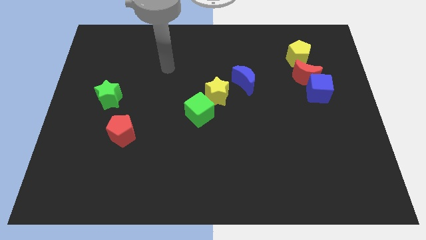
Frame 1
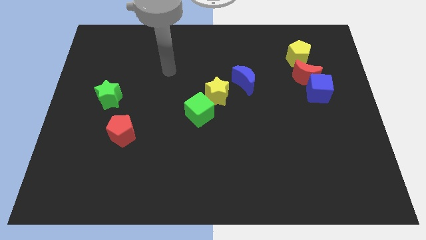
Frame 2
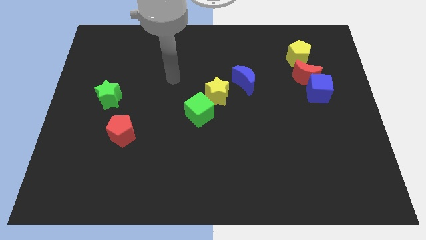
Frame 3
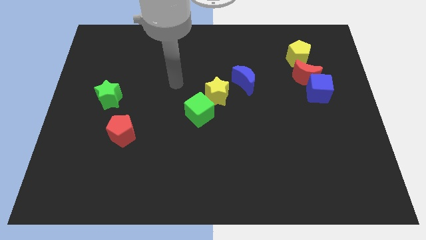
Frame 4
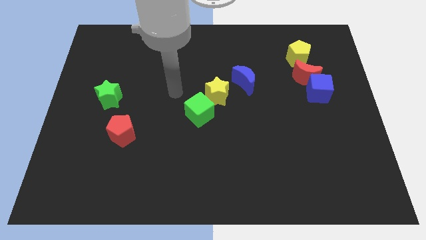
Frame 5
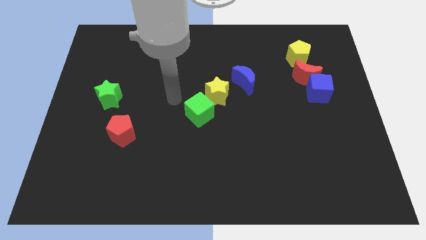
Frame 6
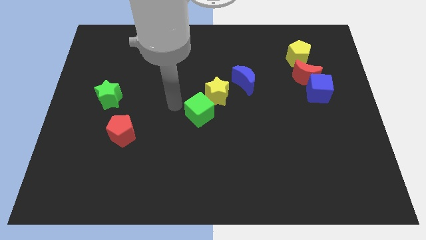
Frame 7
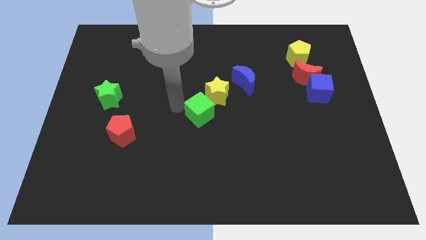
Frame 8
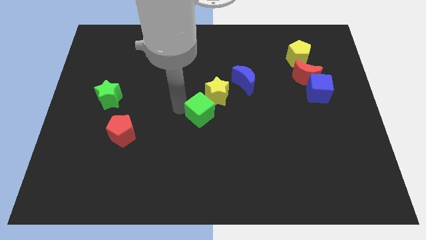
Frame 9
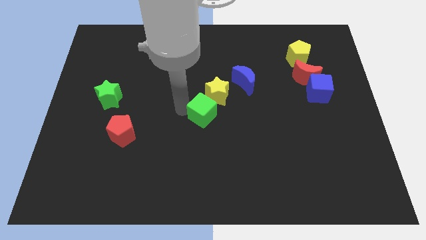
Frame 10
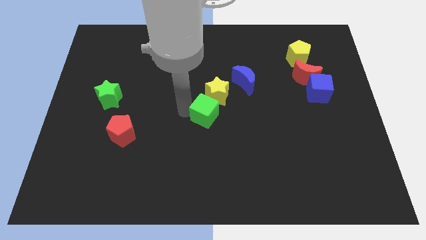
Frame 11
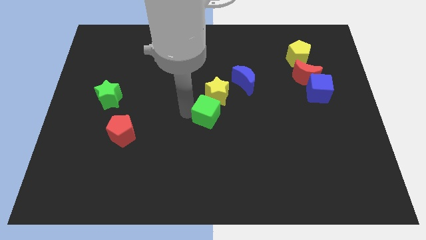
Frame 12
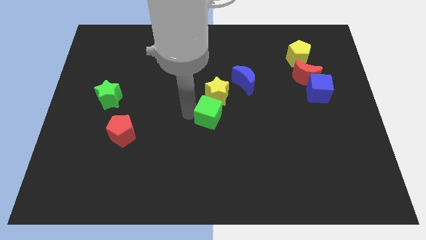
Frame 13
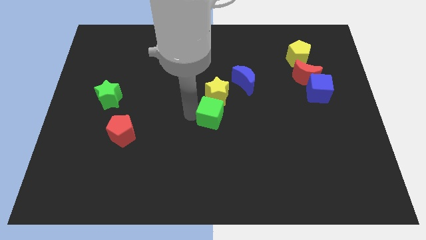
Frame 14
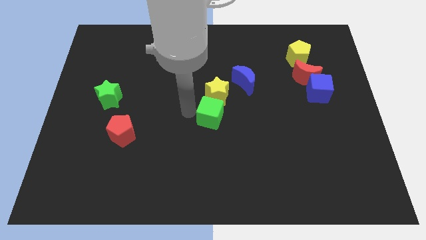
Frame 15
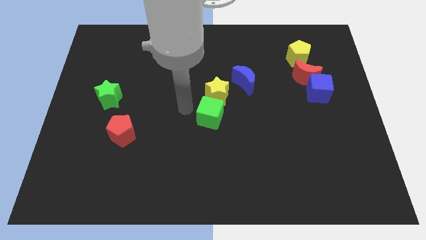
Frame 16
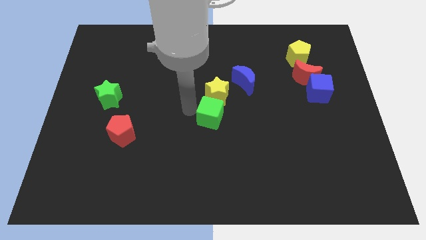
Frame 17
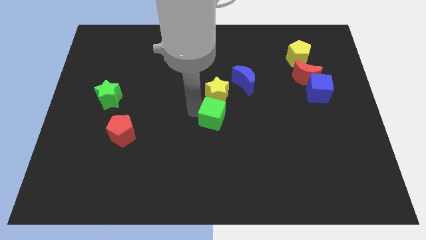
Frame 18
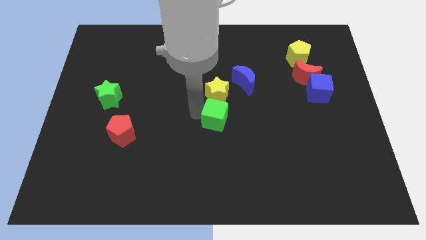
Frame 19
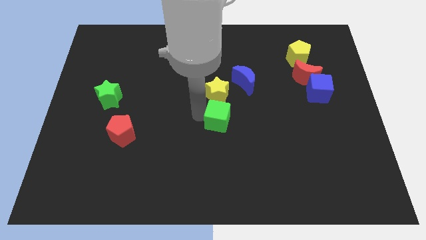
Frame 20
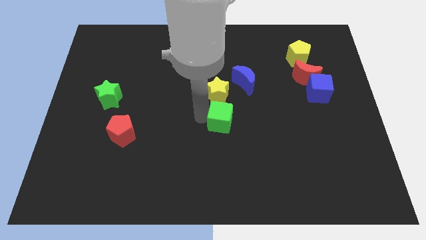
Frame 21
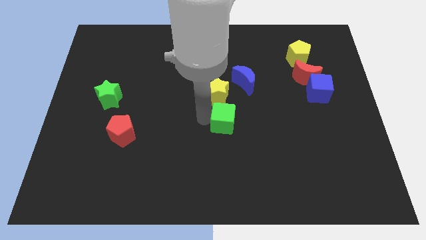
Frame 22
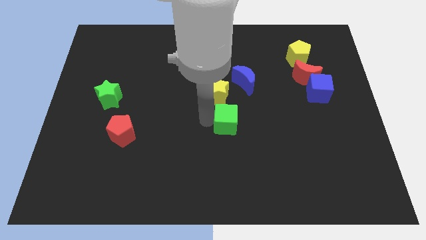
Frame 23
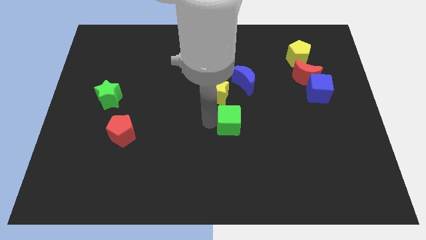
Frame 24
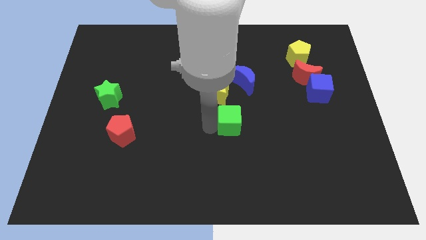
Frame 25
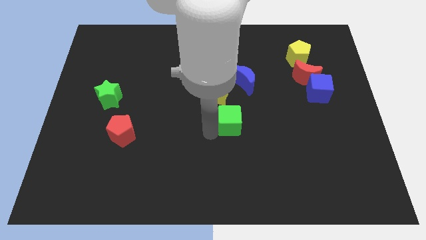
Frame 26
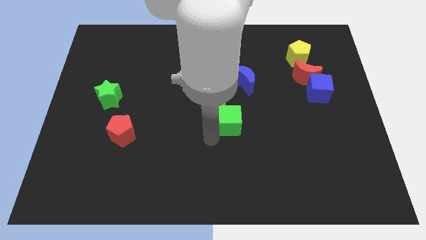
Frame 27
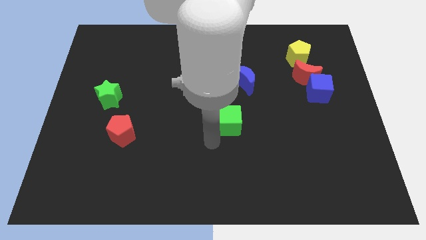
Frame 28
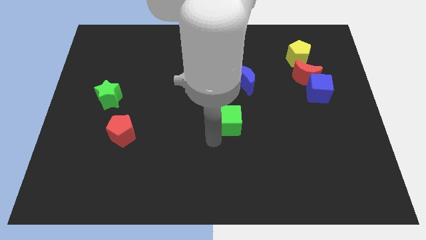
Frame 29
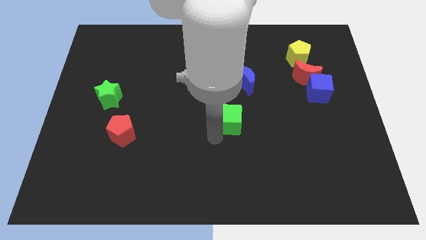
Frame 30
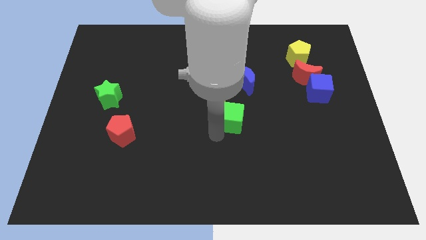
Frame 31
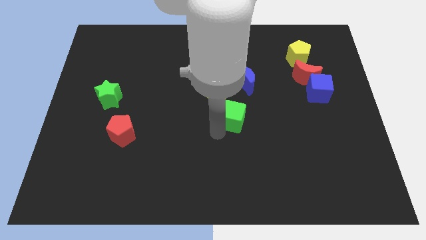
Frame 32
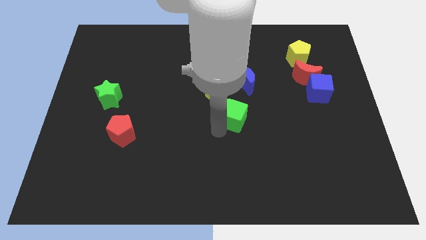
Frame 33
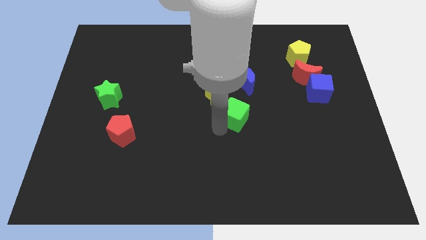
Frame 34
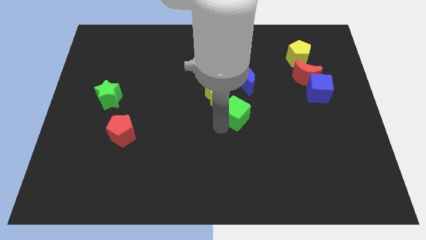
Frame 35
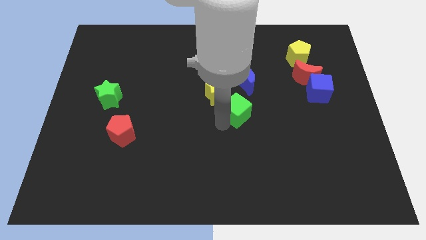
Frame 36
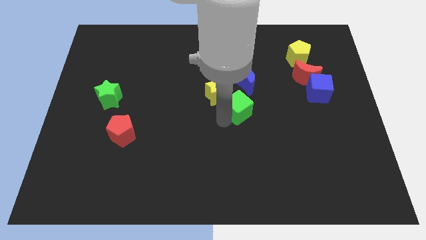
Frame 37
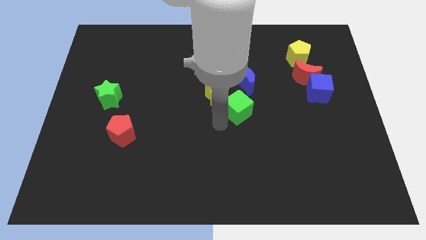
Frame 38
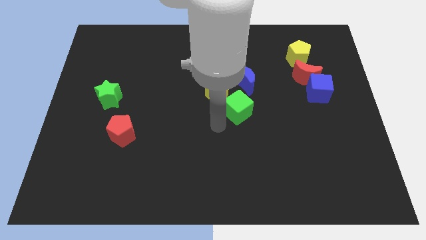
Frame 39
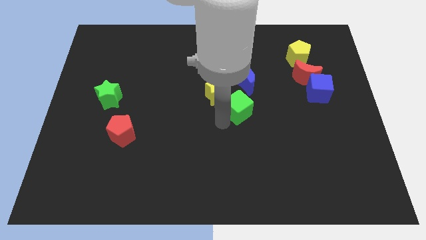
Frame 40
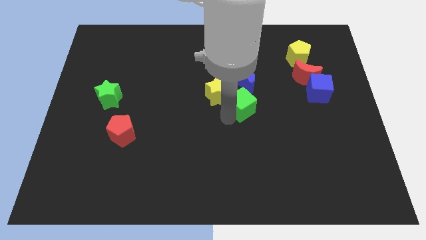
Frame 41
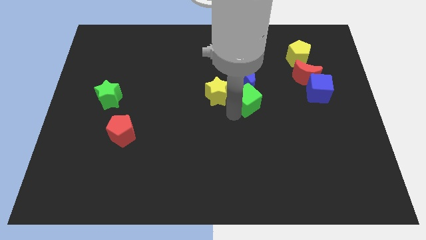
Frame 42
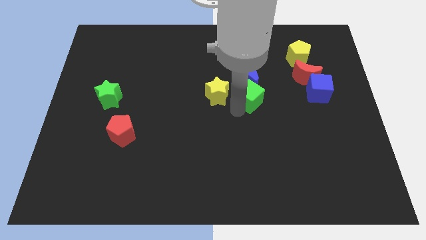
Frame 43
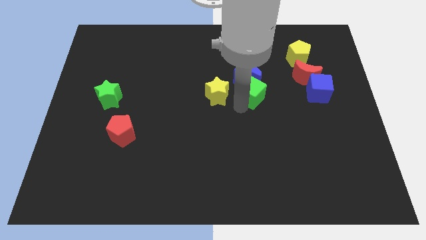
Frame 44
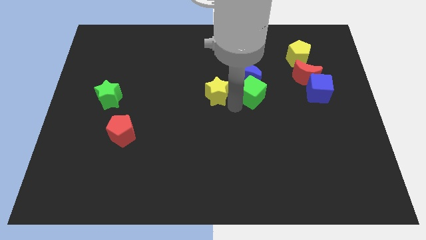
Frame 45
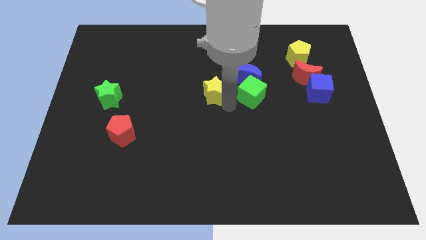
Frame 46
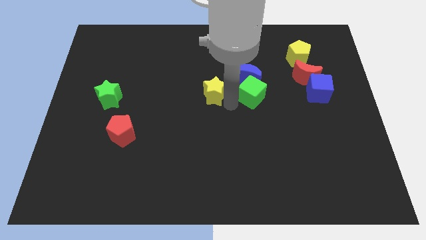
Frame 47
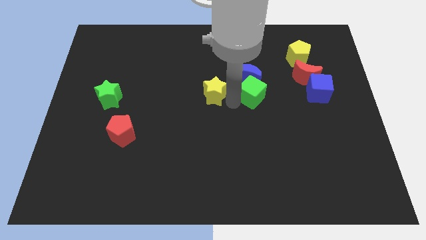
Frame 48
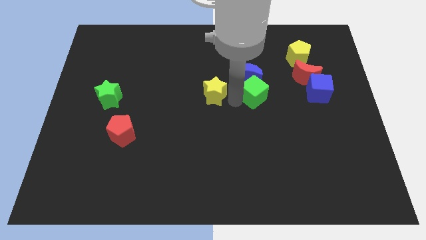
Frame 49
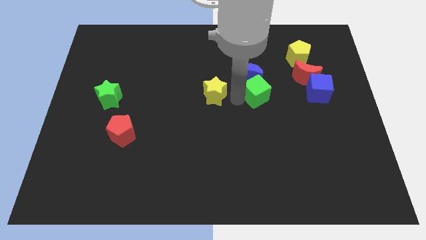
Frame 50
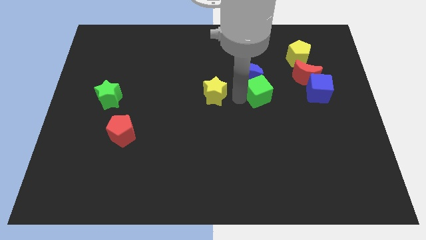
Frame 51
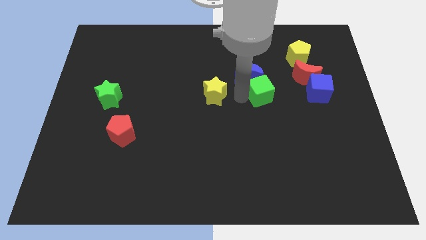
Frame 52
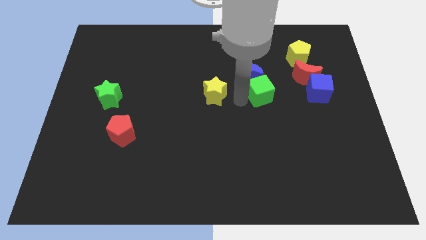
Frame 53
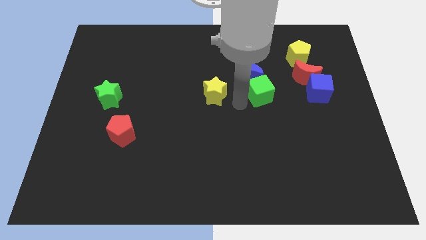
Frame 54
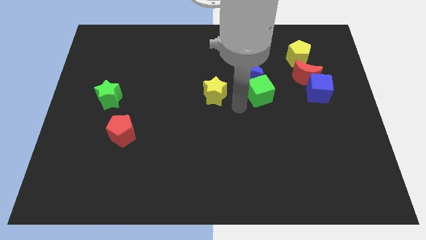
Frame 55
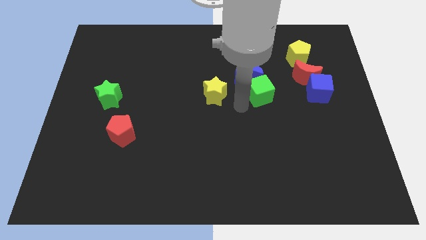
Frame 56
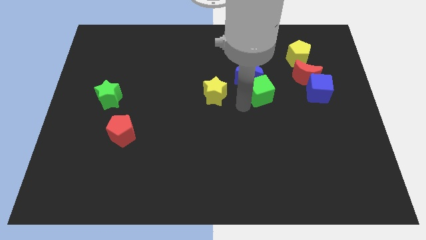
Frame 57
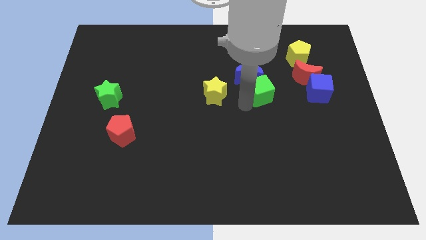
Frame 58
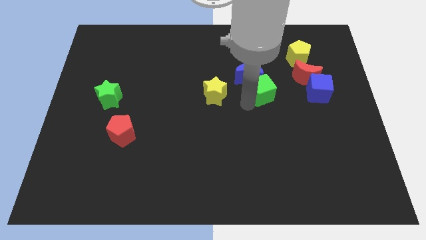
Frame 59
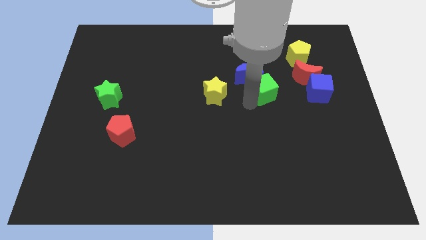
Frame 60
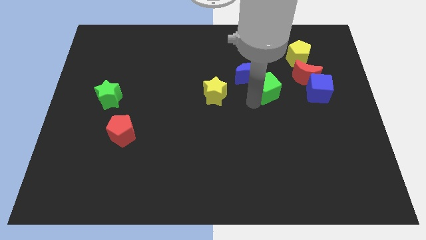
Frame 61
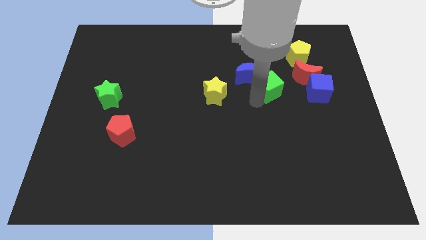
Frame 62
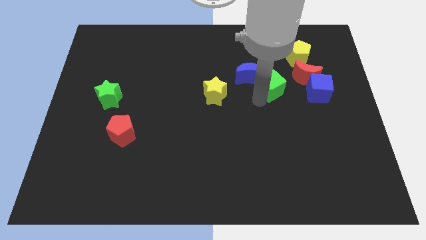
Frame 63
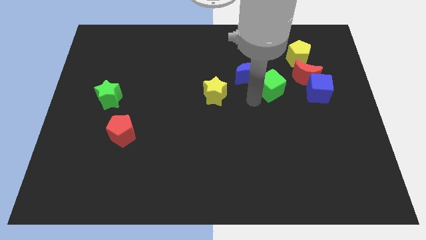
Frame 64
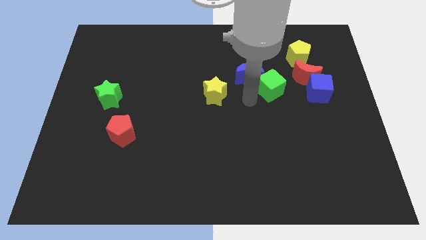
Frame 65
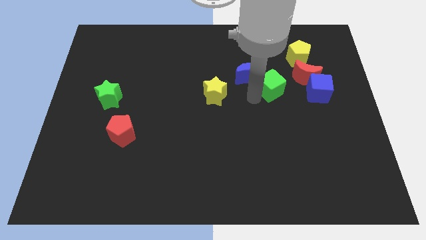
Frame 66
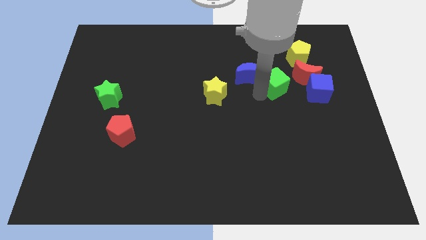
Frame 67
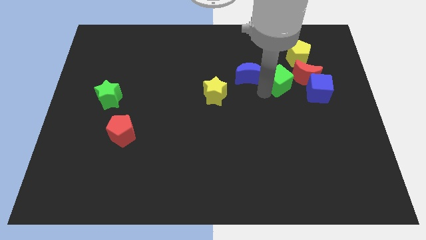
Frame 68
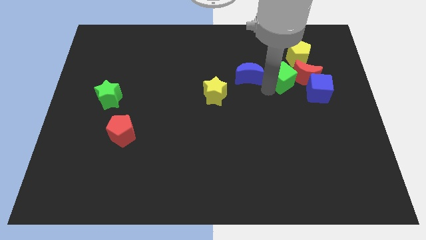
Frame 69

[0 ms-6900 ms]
move the green cube to the red moon
